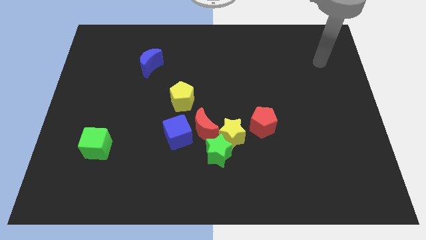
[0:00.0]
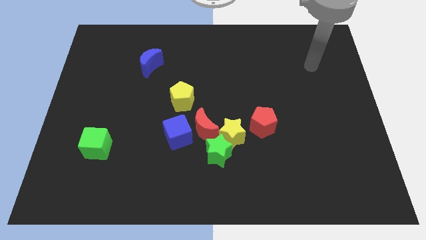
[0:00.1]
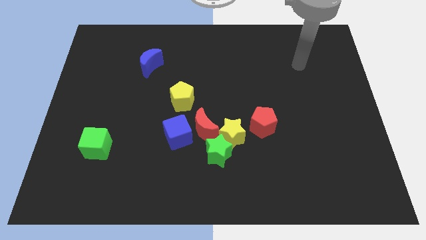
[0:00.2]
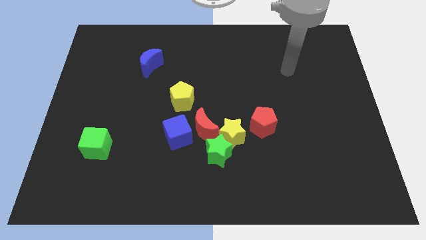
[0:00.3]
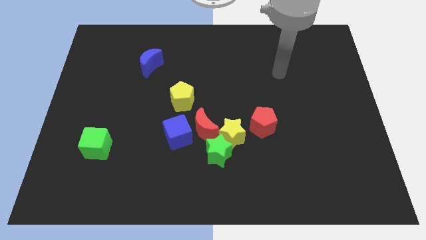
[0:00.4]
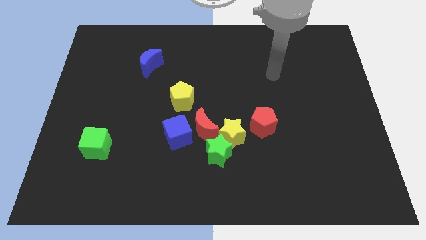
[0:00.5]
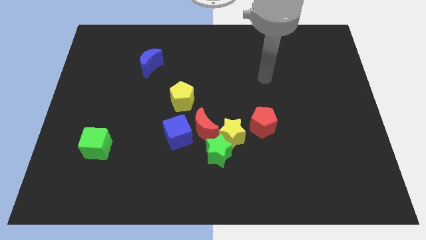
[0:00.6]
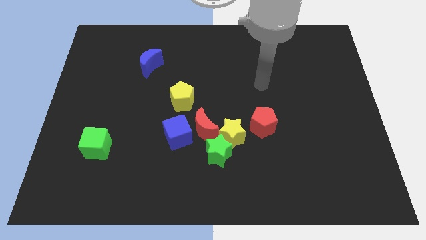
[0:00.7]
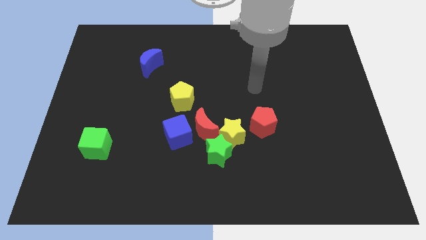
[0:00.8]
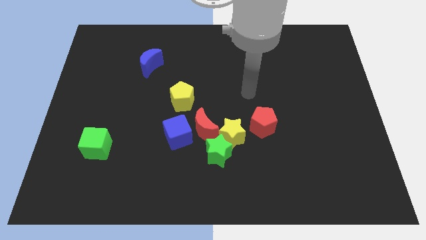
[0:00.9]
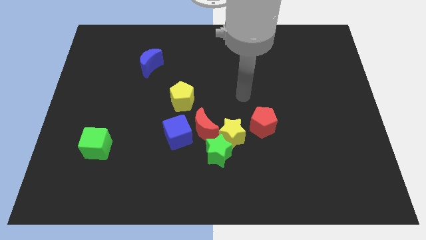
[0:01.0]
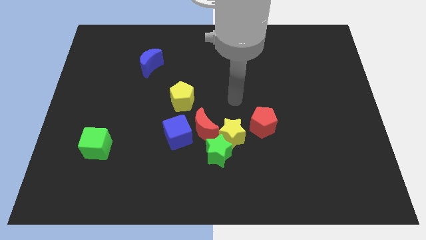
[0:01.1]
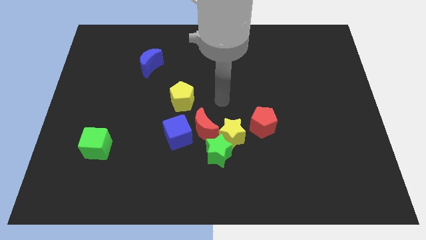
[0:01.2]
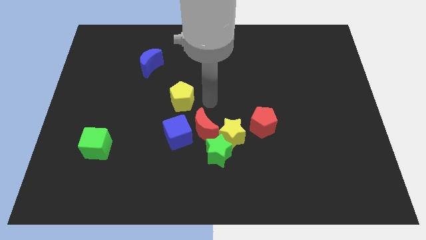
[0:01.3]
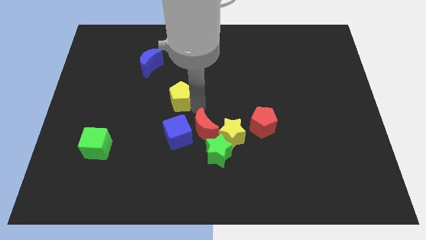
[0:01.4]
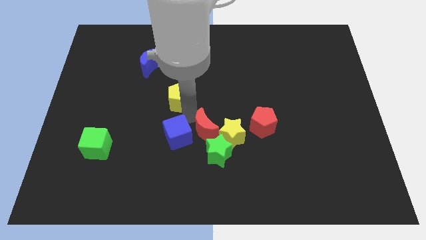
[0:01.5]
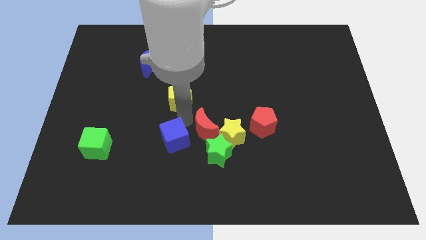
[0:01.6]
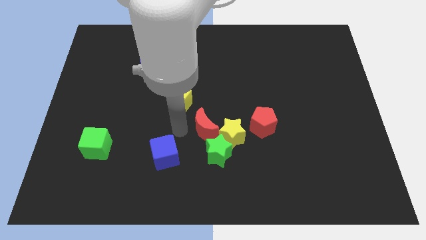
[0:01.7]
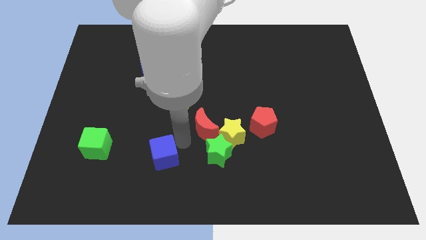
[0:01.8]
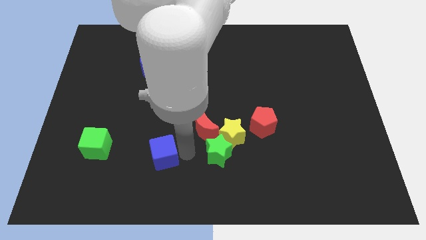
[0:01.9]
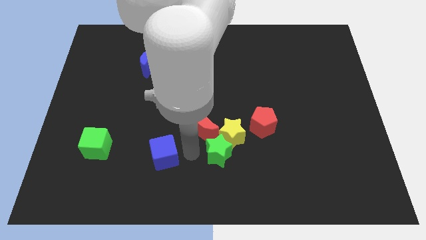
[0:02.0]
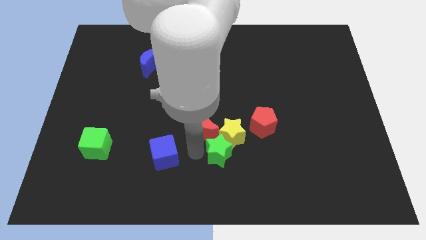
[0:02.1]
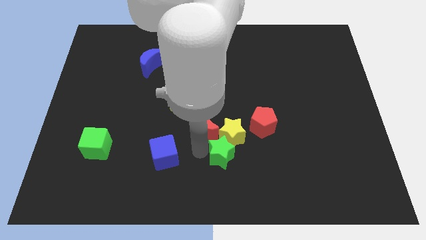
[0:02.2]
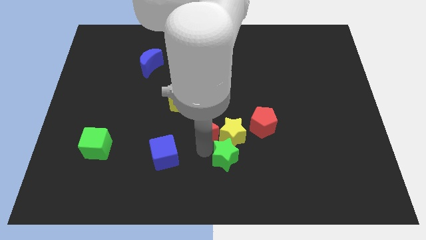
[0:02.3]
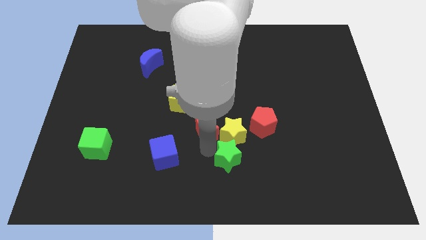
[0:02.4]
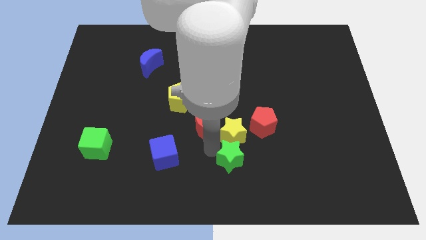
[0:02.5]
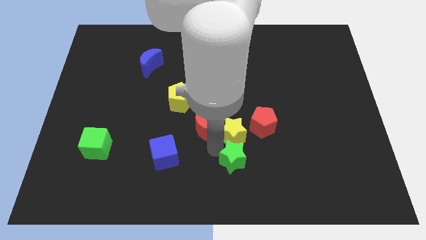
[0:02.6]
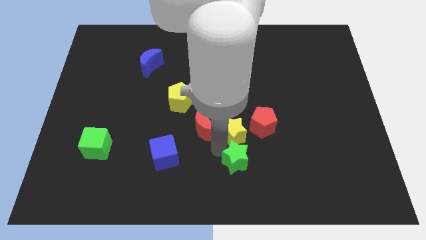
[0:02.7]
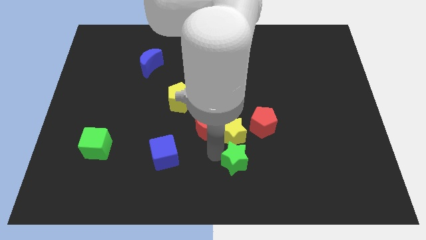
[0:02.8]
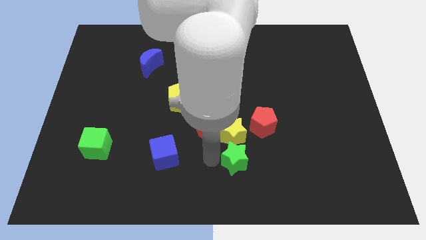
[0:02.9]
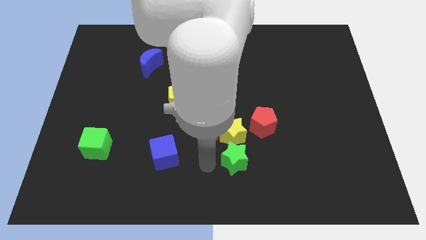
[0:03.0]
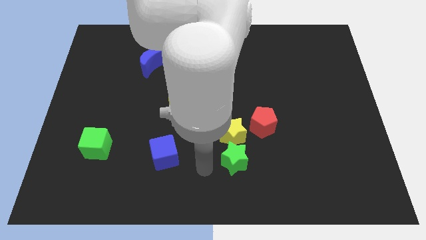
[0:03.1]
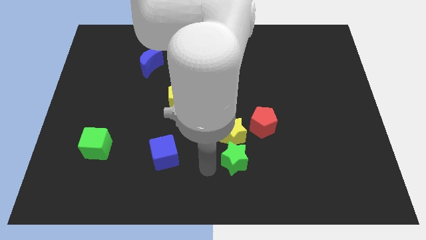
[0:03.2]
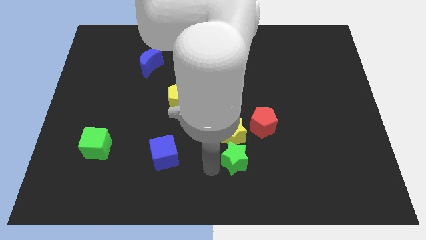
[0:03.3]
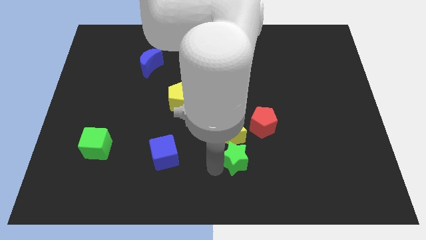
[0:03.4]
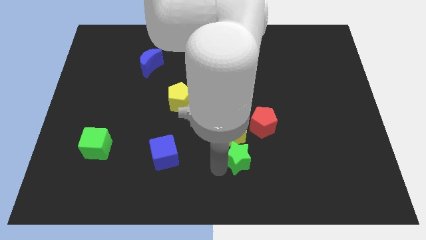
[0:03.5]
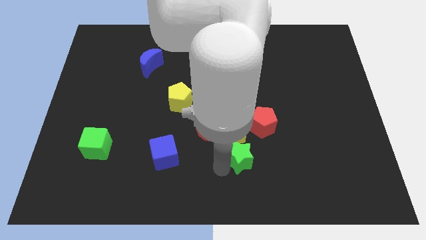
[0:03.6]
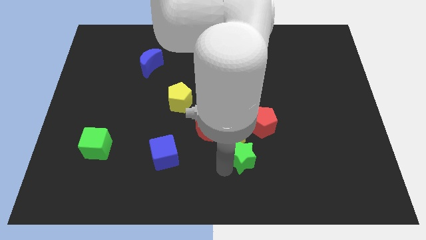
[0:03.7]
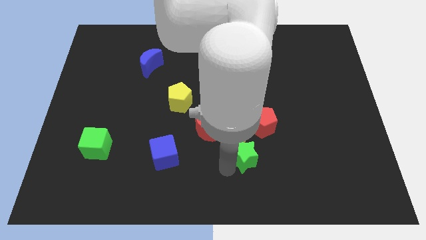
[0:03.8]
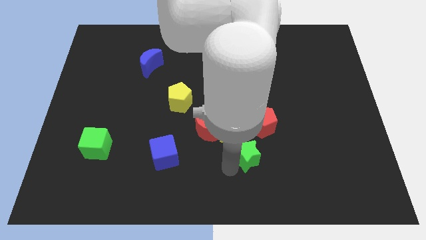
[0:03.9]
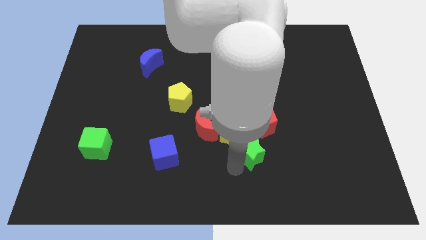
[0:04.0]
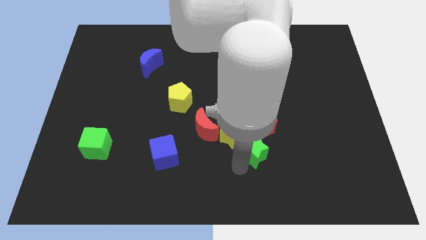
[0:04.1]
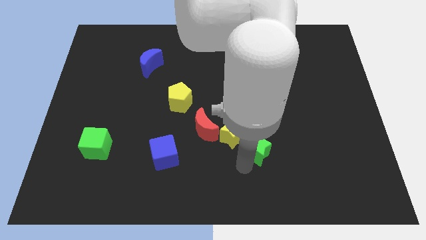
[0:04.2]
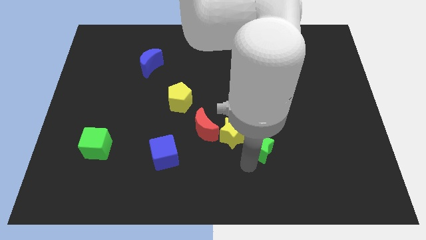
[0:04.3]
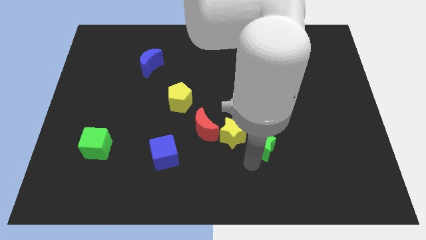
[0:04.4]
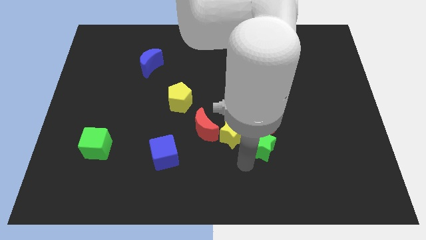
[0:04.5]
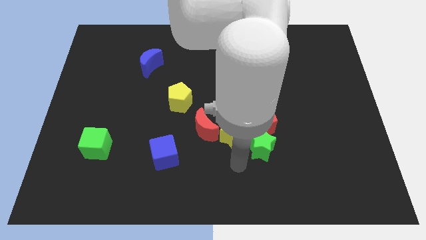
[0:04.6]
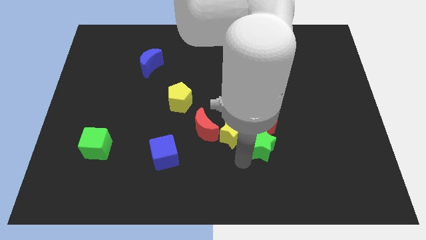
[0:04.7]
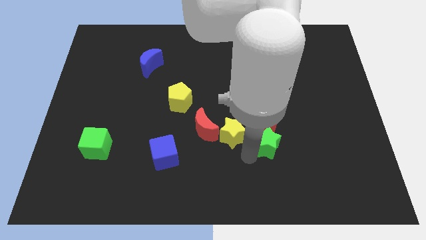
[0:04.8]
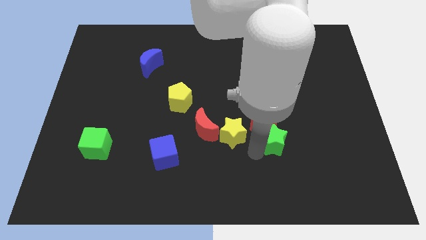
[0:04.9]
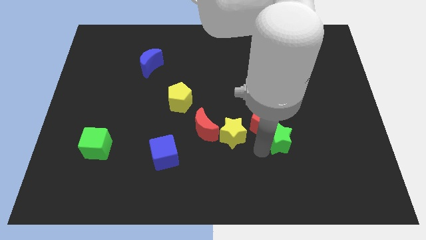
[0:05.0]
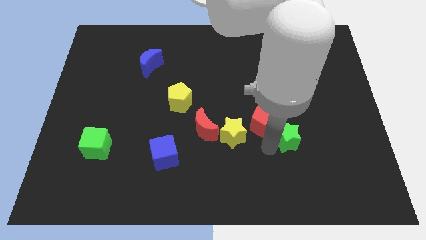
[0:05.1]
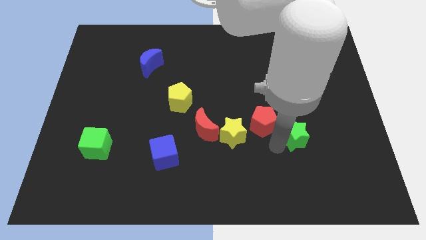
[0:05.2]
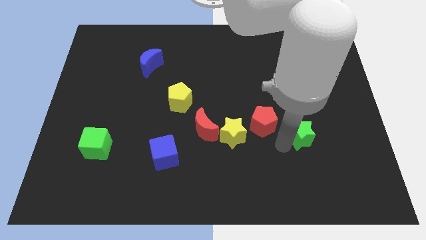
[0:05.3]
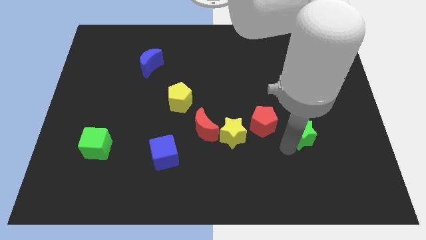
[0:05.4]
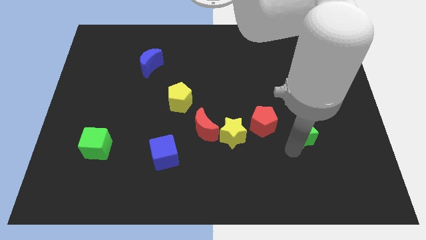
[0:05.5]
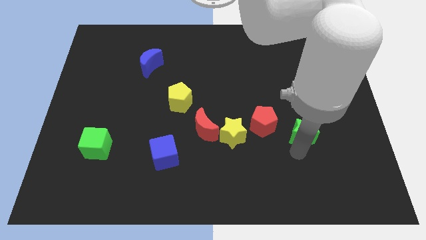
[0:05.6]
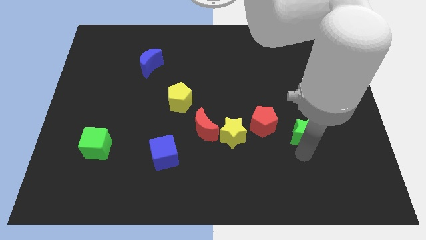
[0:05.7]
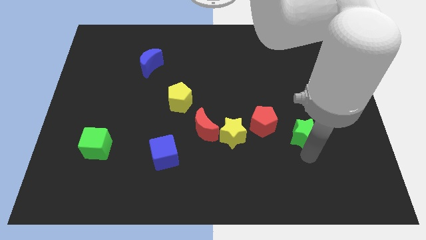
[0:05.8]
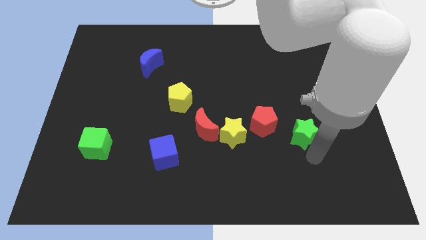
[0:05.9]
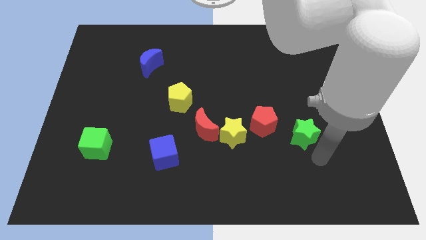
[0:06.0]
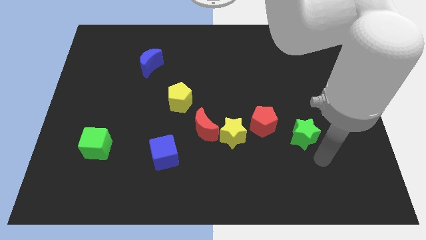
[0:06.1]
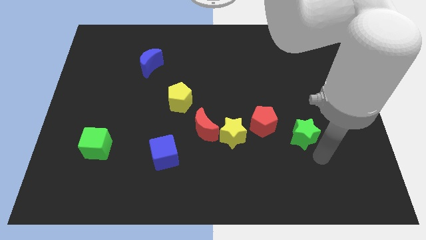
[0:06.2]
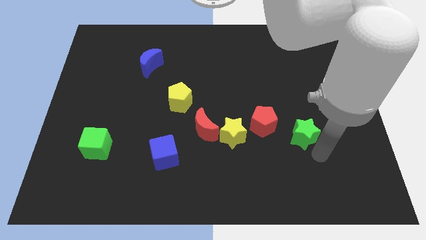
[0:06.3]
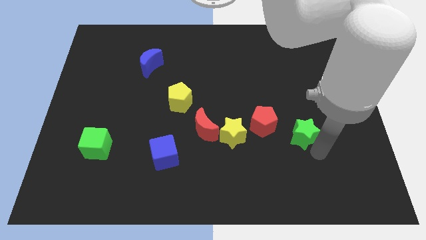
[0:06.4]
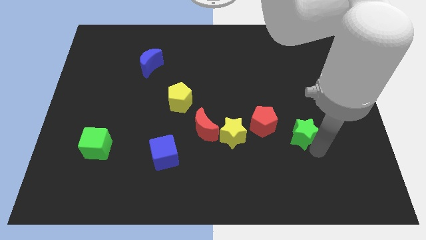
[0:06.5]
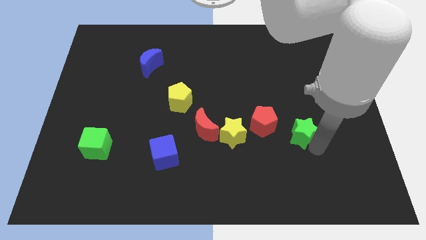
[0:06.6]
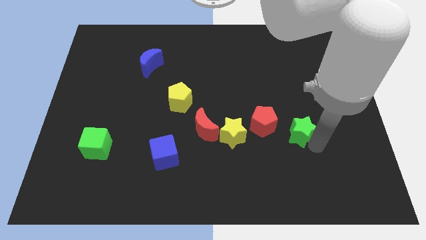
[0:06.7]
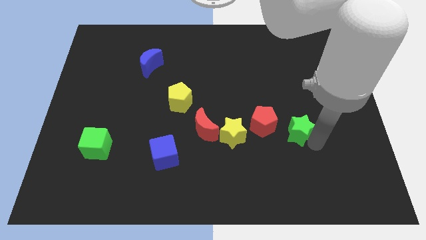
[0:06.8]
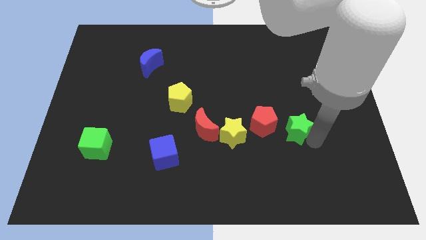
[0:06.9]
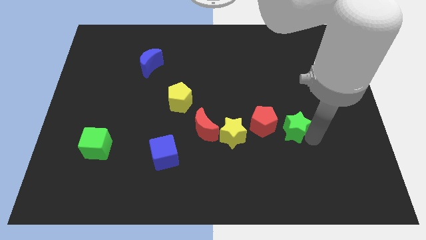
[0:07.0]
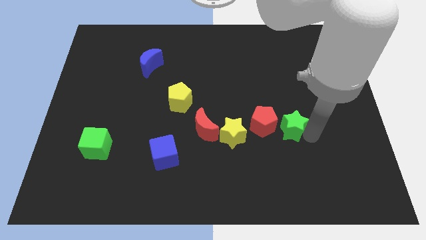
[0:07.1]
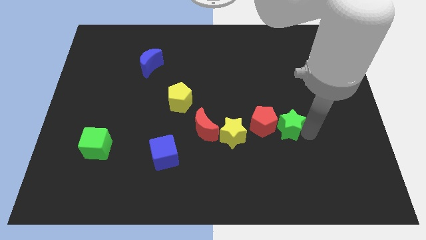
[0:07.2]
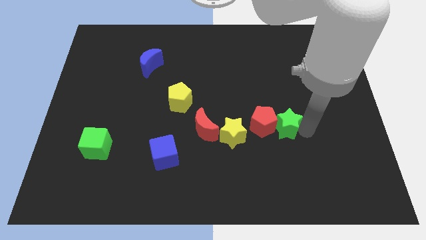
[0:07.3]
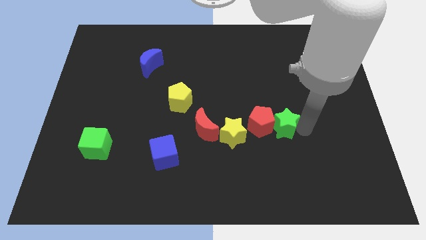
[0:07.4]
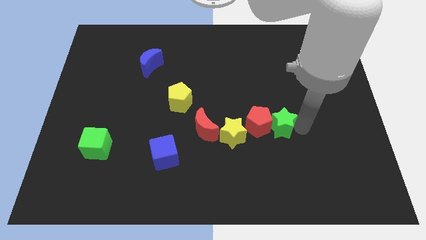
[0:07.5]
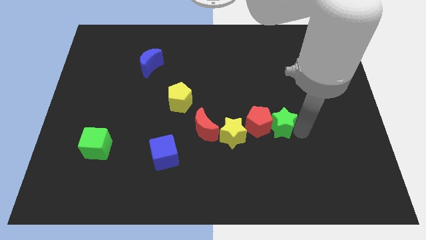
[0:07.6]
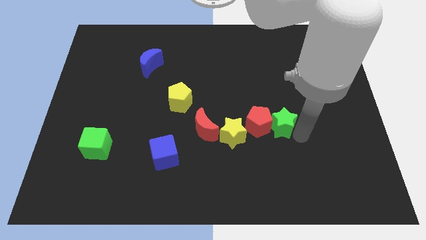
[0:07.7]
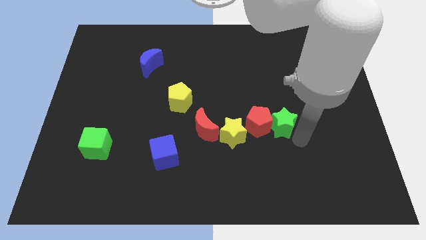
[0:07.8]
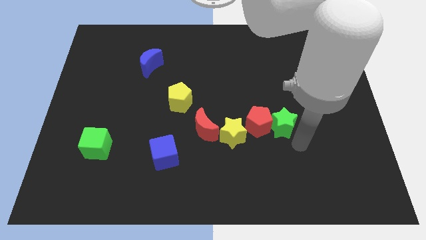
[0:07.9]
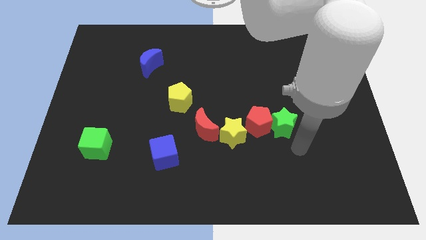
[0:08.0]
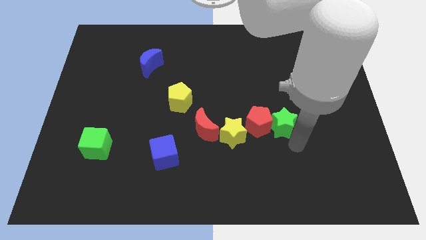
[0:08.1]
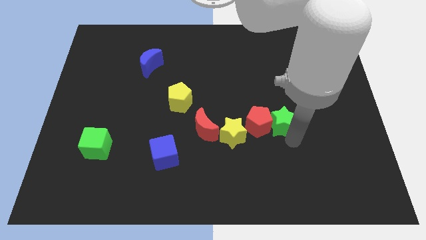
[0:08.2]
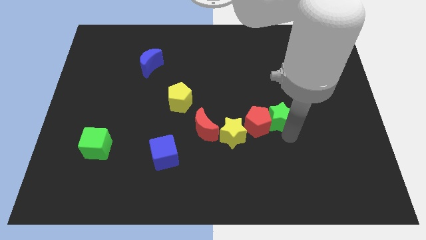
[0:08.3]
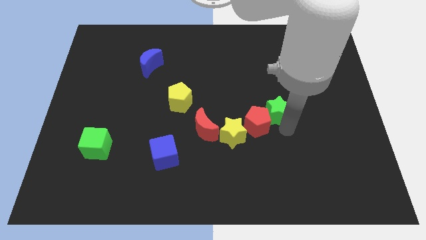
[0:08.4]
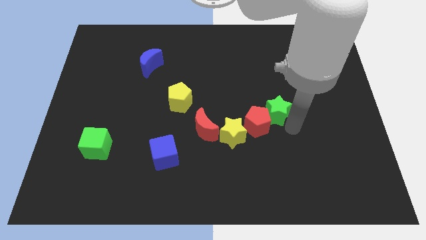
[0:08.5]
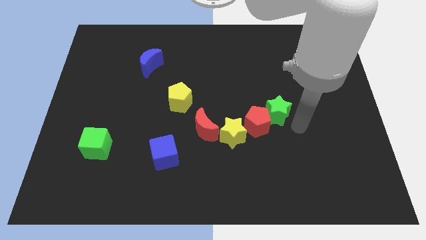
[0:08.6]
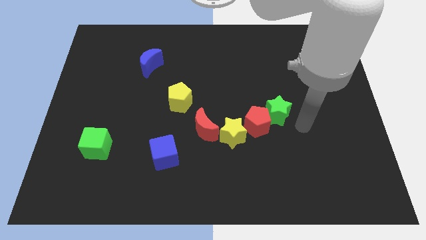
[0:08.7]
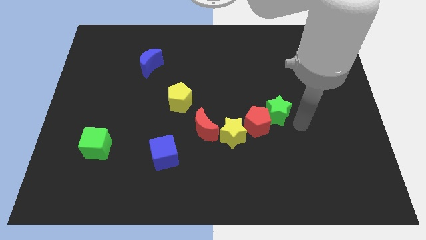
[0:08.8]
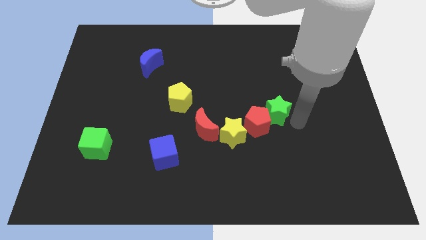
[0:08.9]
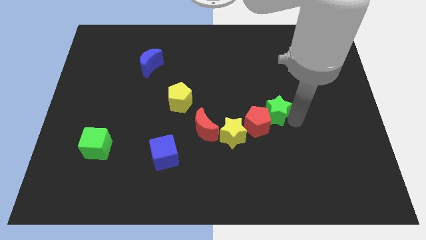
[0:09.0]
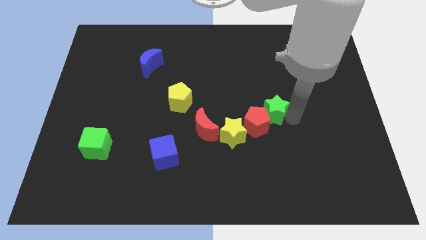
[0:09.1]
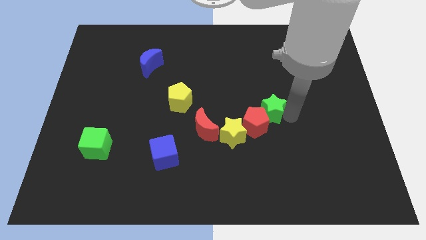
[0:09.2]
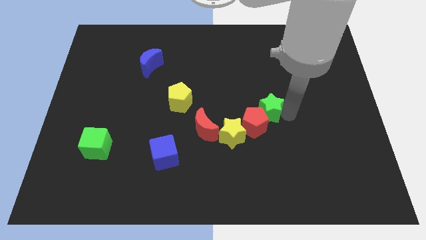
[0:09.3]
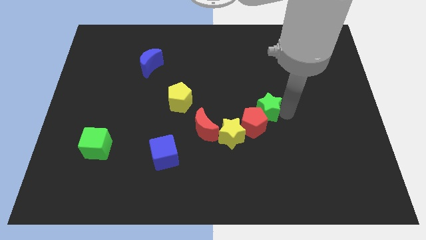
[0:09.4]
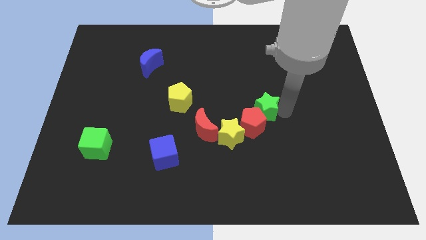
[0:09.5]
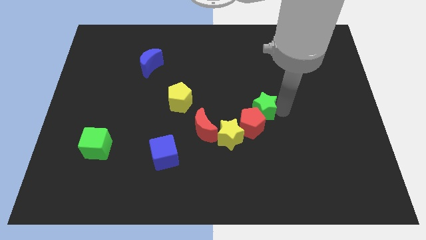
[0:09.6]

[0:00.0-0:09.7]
push the green star to the center
